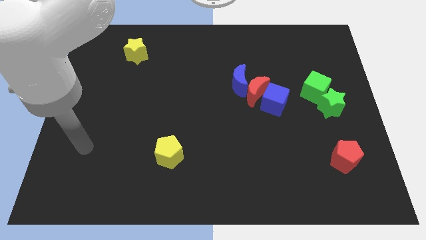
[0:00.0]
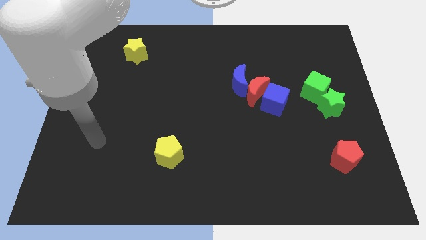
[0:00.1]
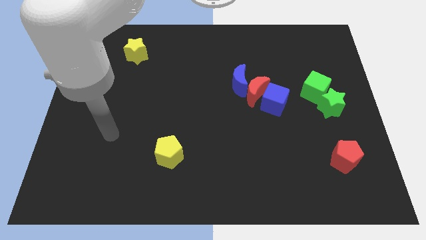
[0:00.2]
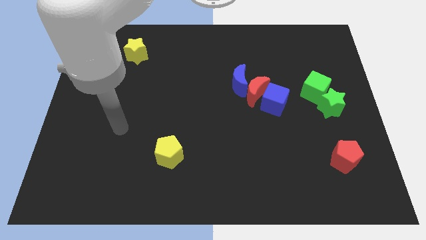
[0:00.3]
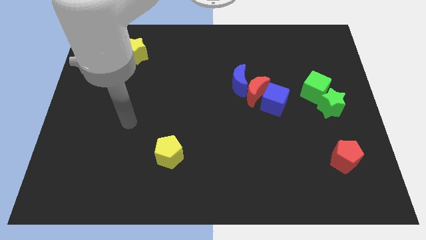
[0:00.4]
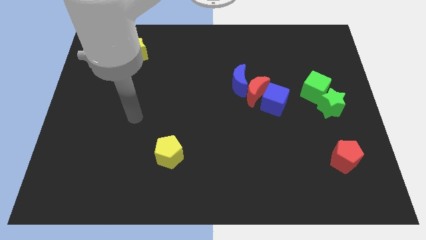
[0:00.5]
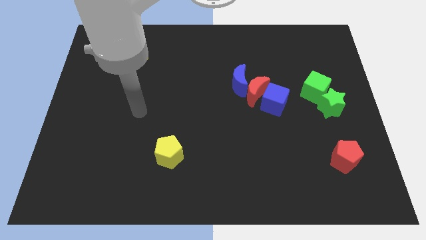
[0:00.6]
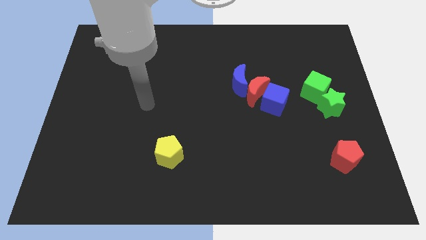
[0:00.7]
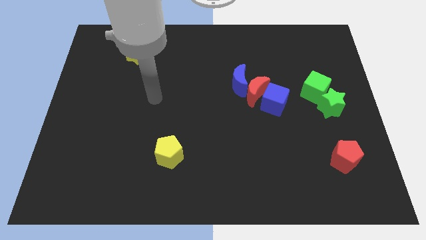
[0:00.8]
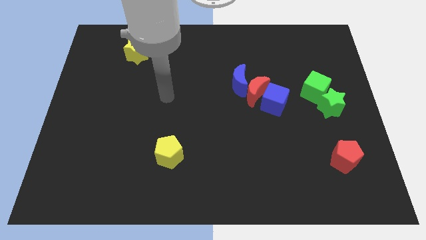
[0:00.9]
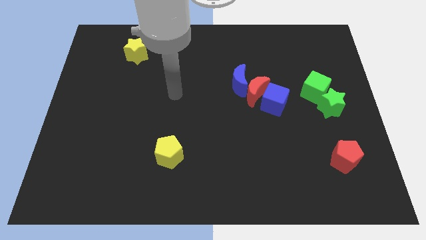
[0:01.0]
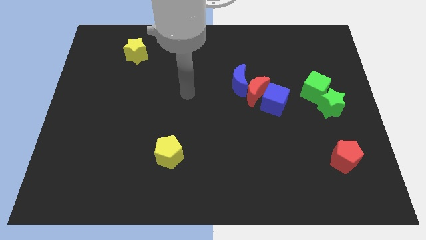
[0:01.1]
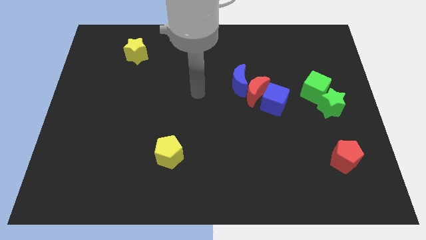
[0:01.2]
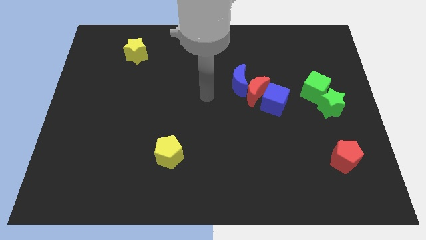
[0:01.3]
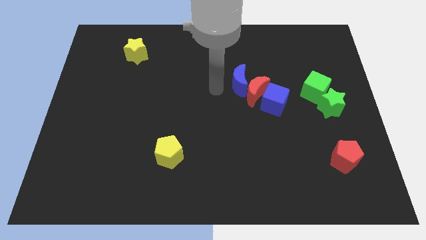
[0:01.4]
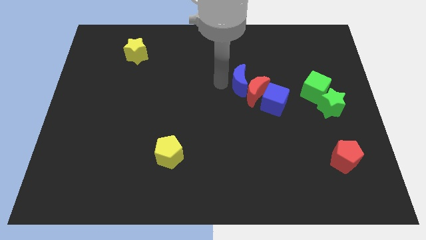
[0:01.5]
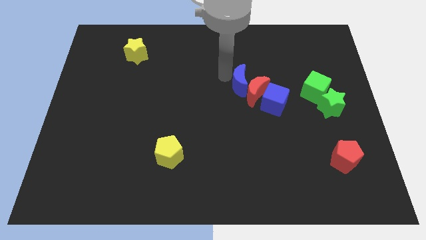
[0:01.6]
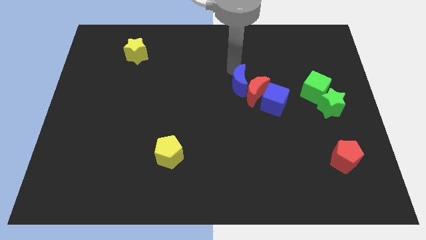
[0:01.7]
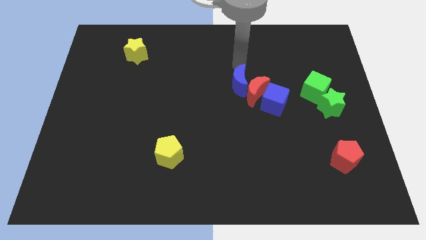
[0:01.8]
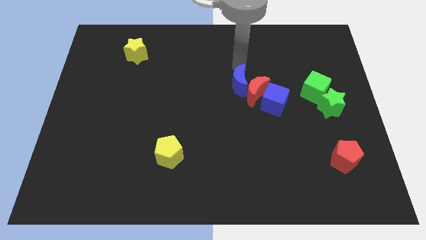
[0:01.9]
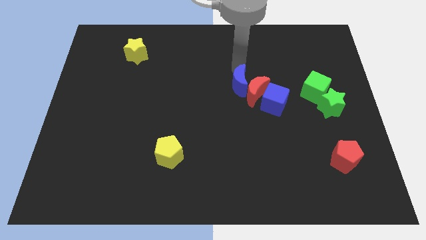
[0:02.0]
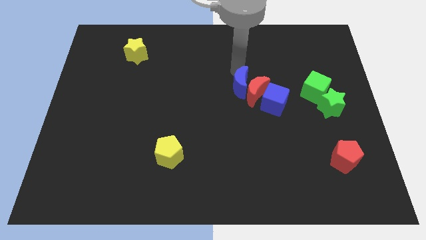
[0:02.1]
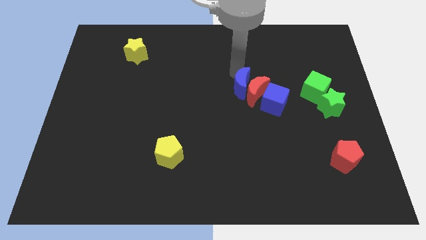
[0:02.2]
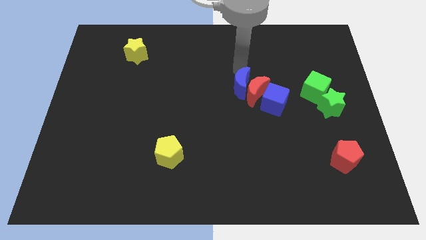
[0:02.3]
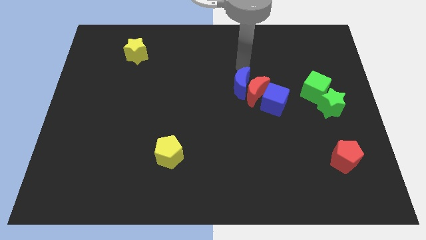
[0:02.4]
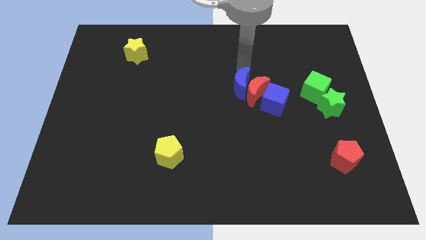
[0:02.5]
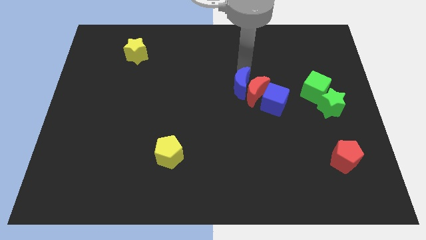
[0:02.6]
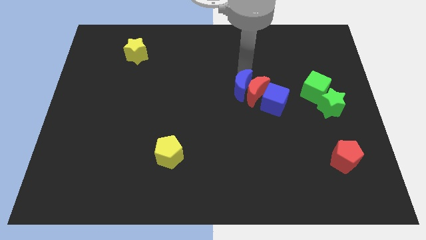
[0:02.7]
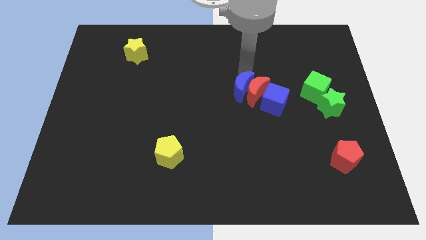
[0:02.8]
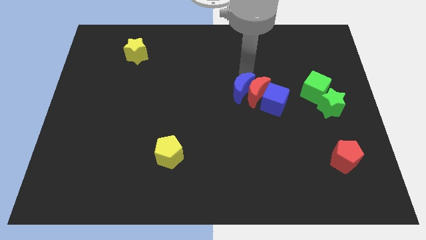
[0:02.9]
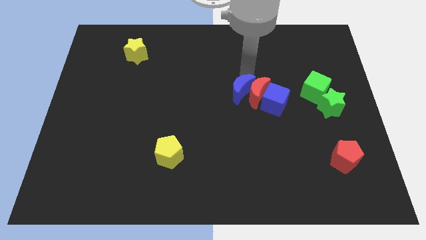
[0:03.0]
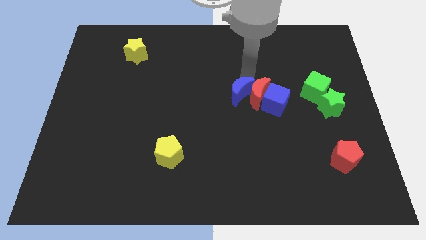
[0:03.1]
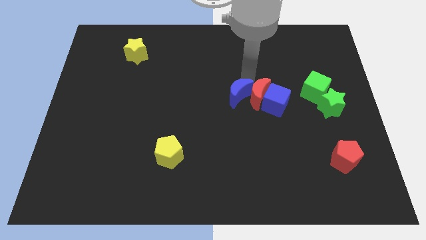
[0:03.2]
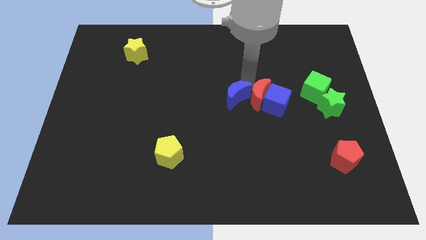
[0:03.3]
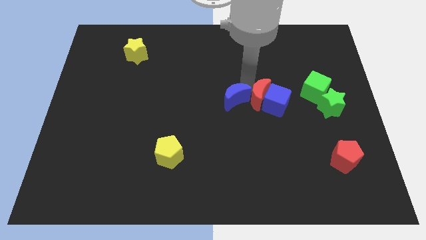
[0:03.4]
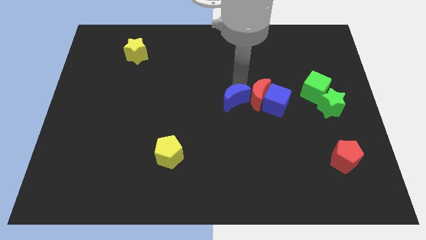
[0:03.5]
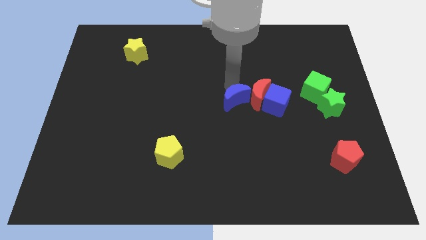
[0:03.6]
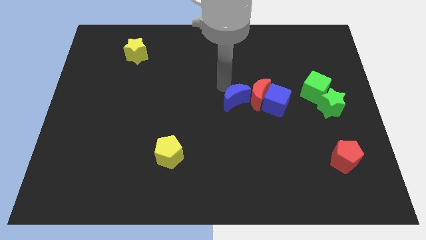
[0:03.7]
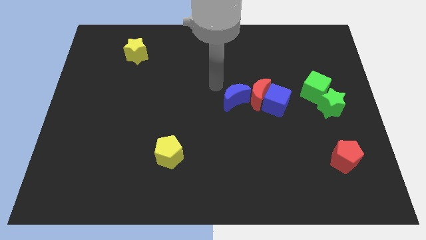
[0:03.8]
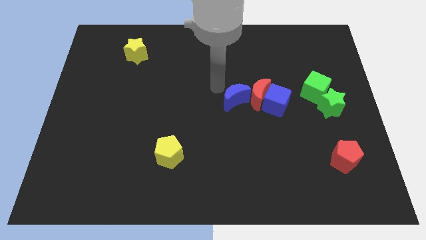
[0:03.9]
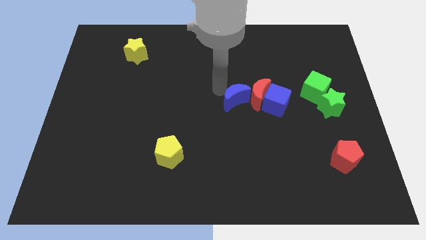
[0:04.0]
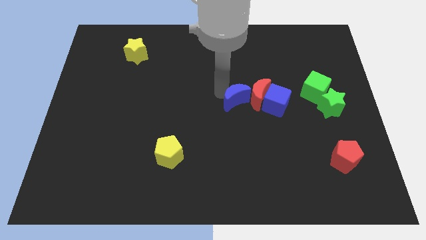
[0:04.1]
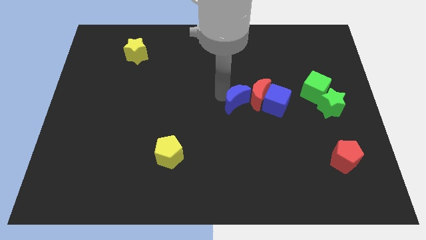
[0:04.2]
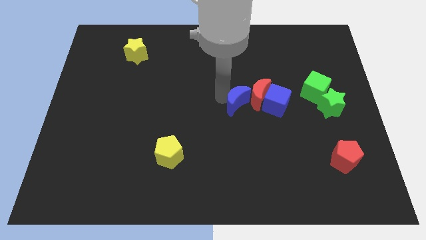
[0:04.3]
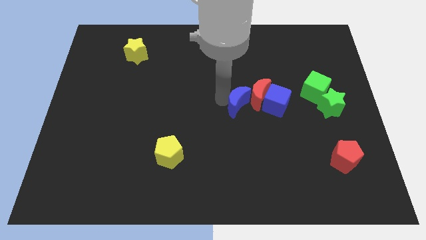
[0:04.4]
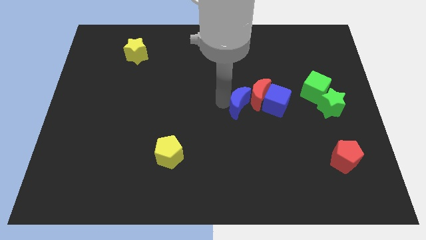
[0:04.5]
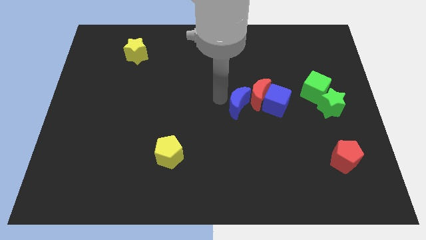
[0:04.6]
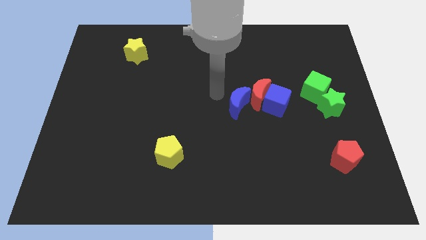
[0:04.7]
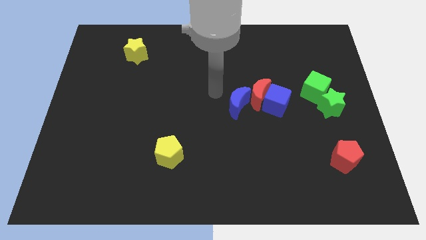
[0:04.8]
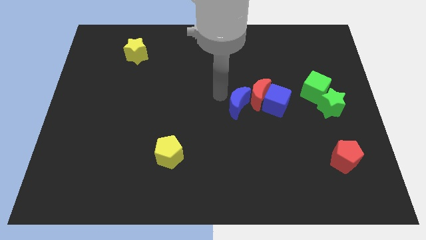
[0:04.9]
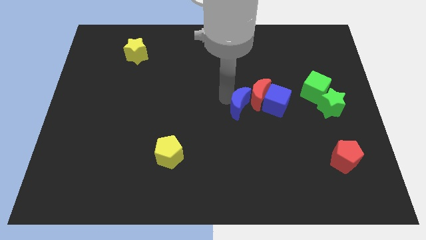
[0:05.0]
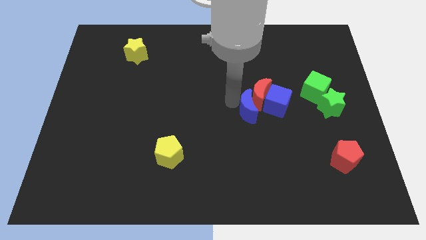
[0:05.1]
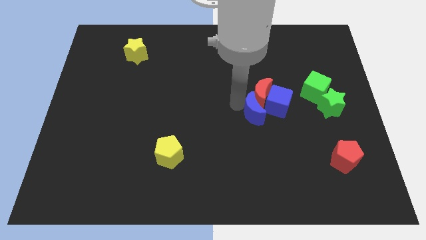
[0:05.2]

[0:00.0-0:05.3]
slide the blue moon downwards and right diagonally a little

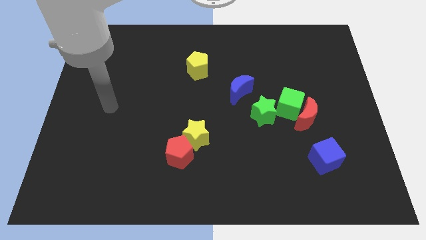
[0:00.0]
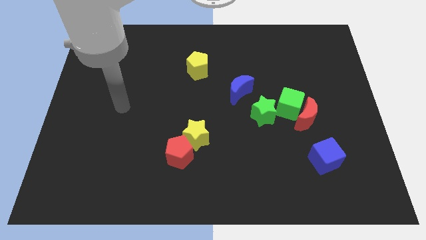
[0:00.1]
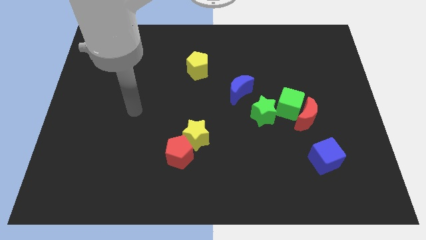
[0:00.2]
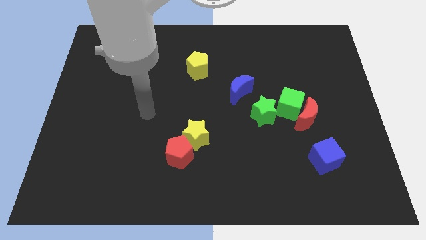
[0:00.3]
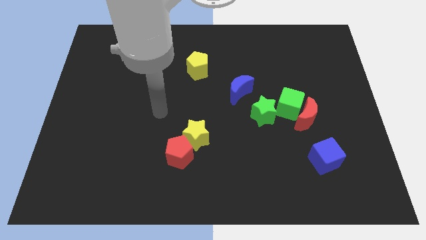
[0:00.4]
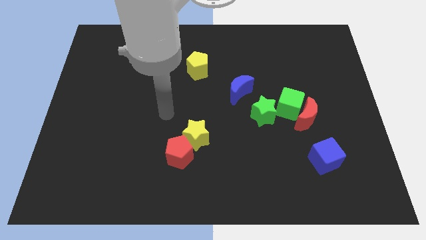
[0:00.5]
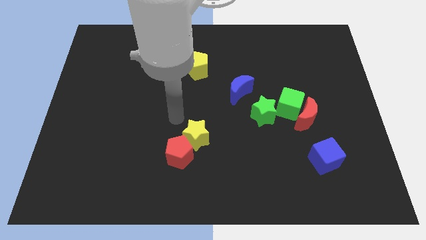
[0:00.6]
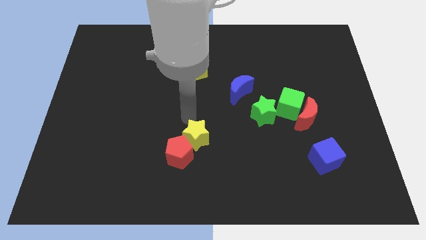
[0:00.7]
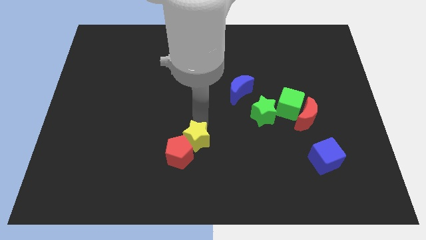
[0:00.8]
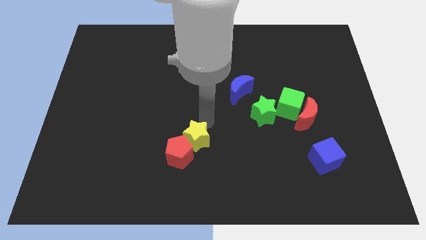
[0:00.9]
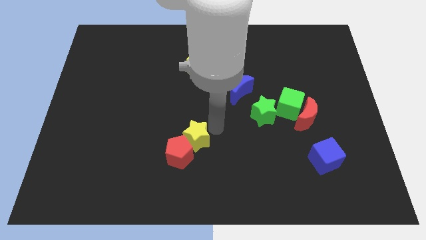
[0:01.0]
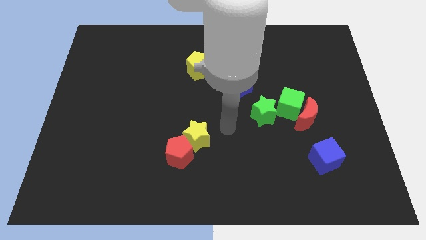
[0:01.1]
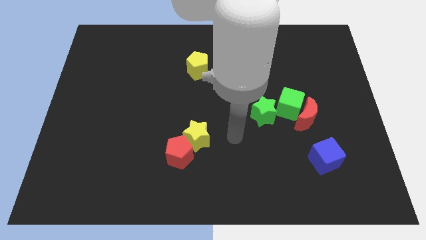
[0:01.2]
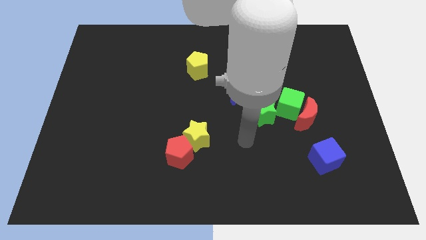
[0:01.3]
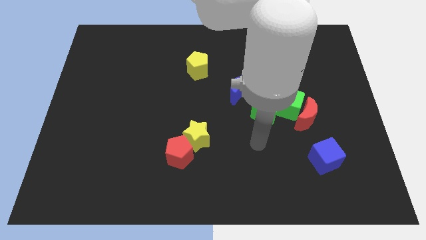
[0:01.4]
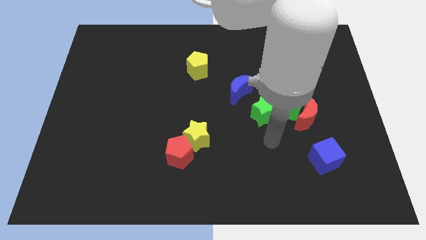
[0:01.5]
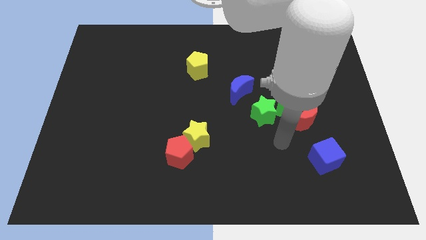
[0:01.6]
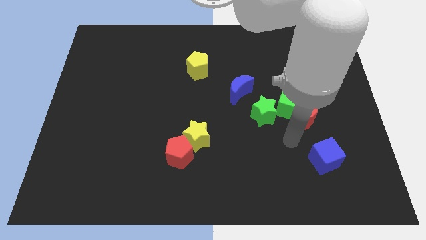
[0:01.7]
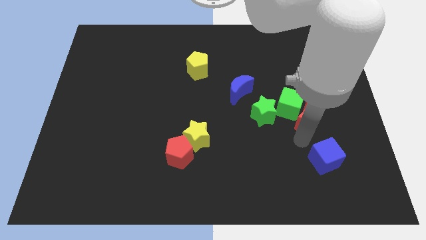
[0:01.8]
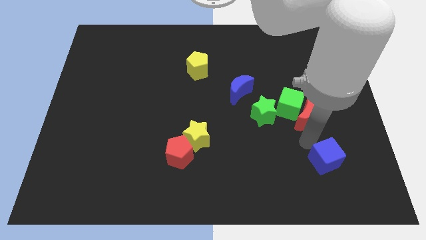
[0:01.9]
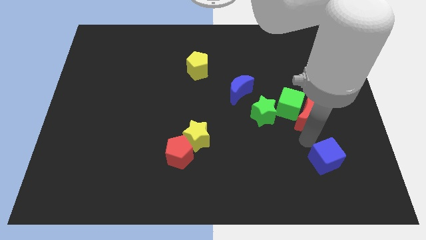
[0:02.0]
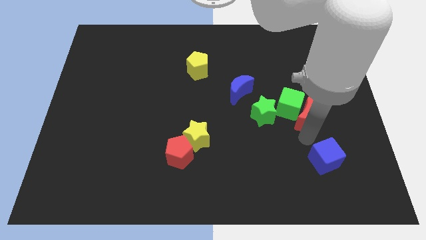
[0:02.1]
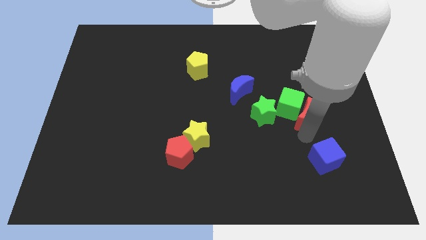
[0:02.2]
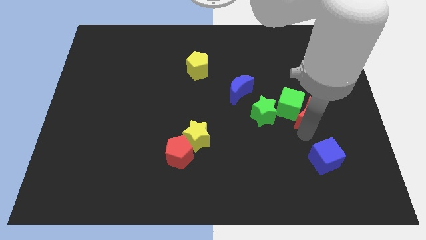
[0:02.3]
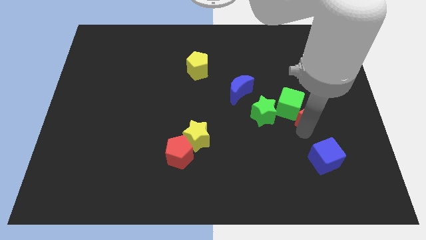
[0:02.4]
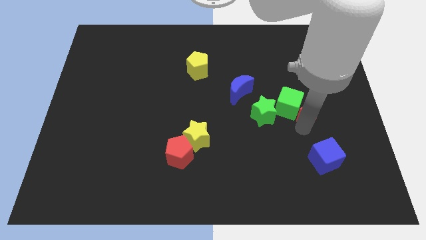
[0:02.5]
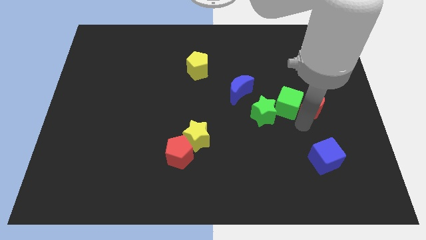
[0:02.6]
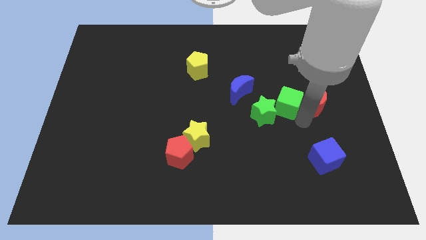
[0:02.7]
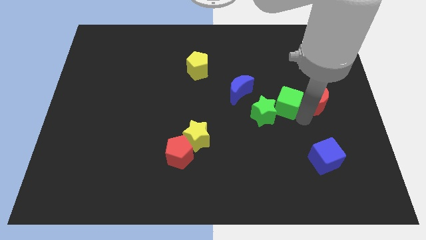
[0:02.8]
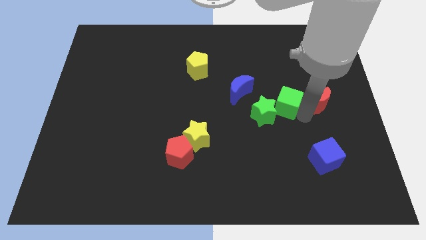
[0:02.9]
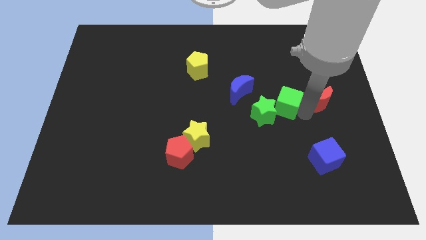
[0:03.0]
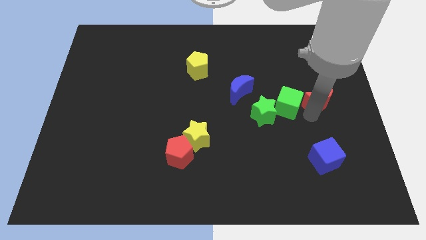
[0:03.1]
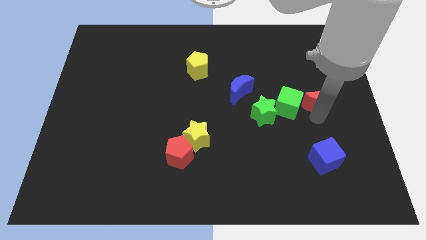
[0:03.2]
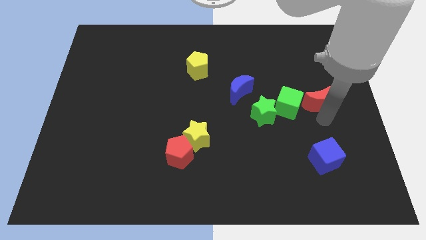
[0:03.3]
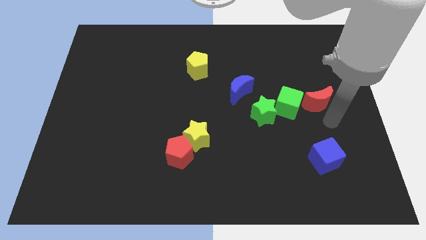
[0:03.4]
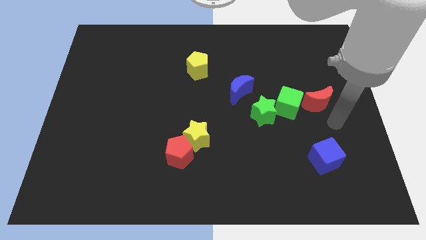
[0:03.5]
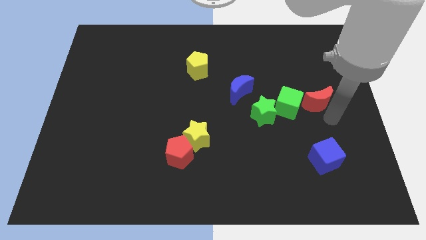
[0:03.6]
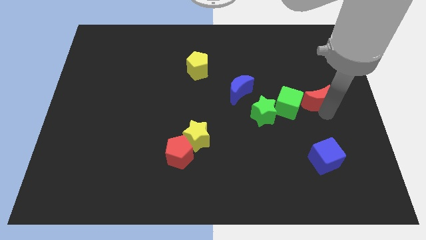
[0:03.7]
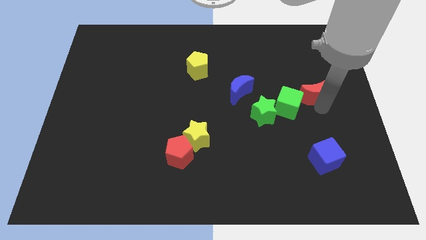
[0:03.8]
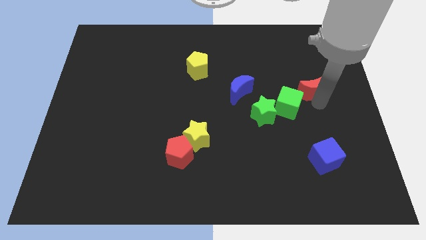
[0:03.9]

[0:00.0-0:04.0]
push the red moon a bit upwards
